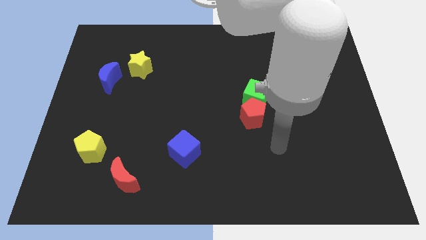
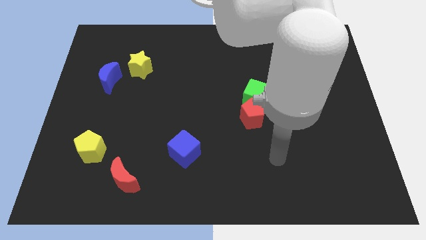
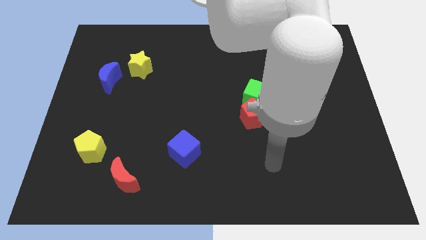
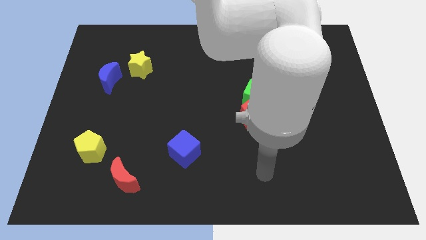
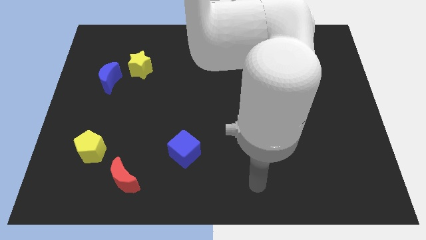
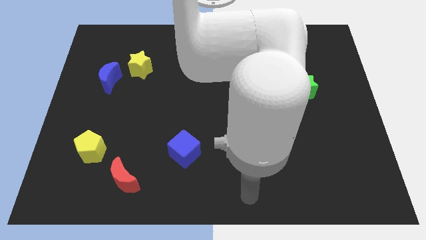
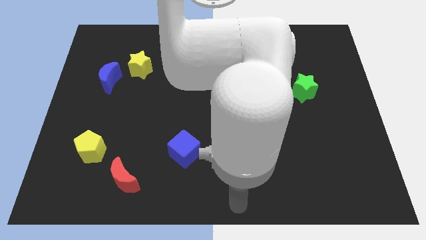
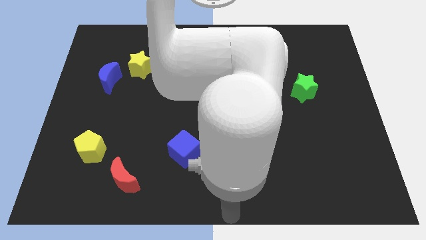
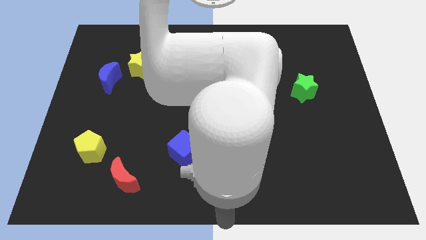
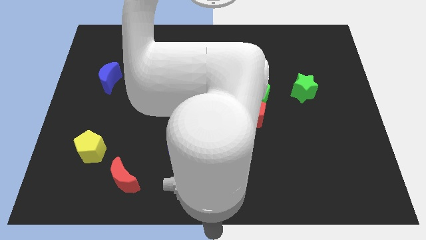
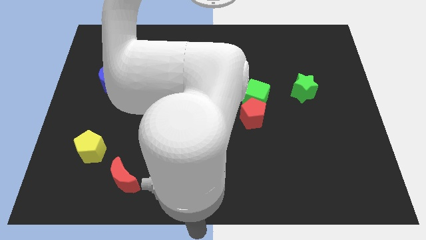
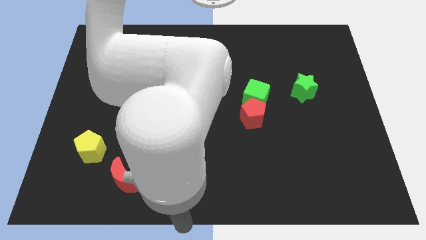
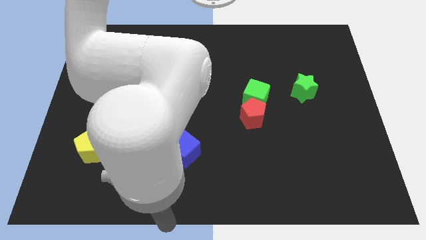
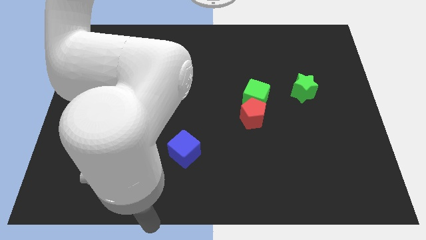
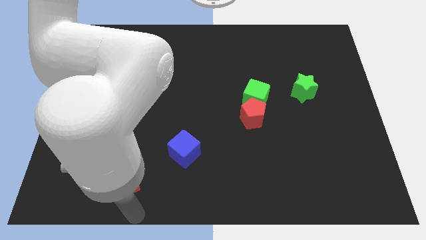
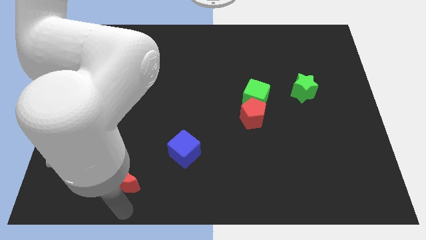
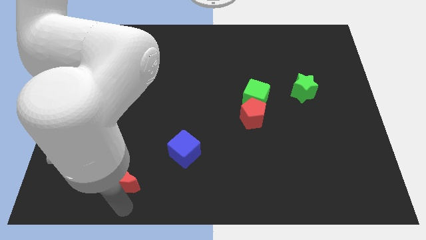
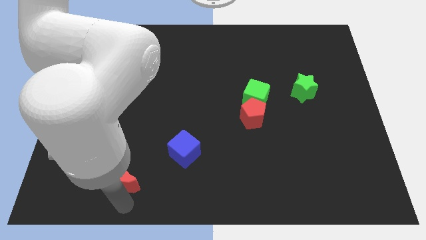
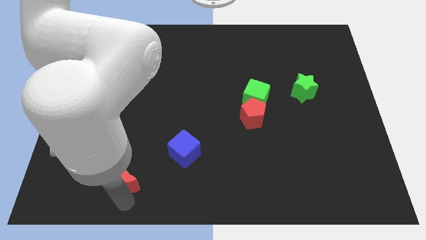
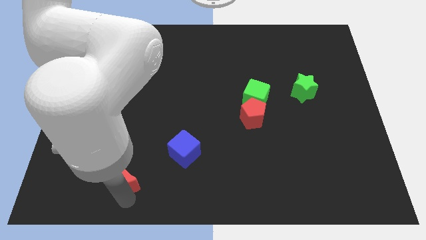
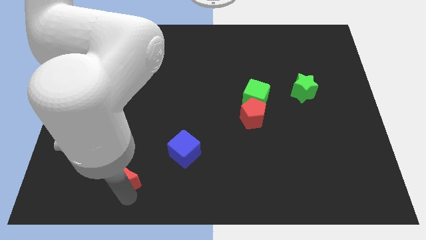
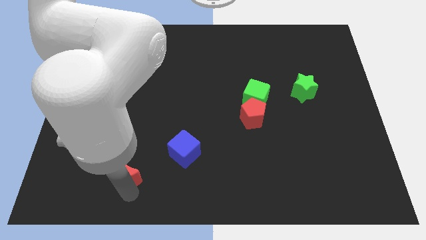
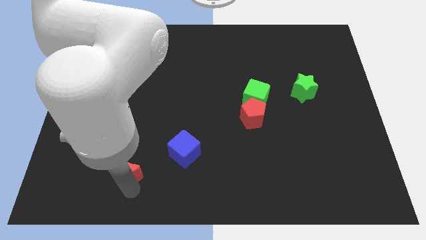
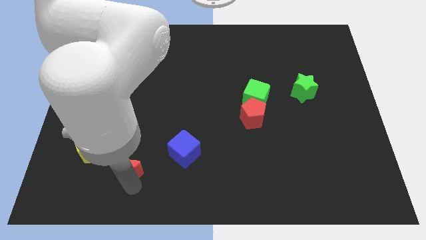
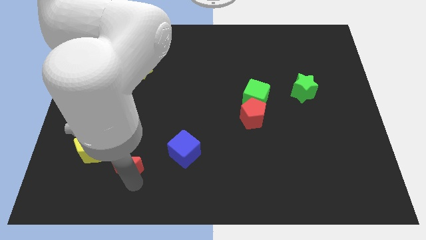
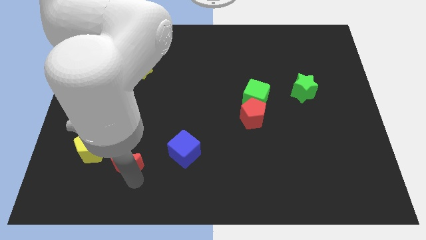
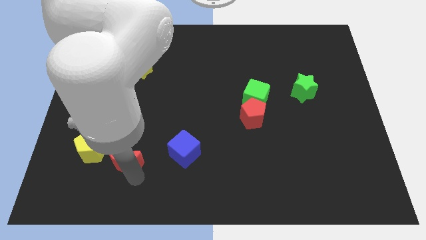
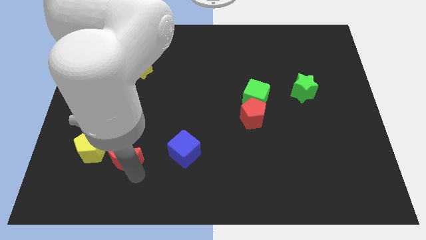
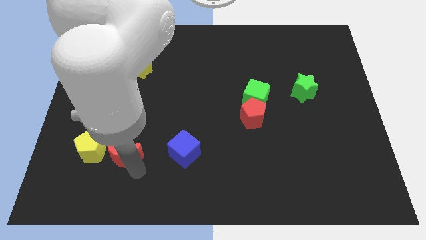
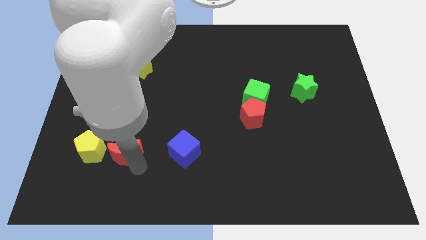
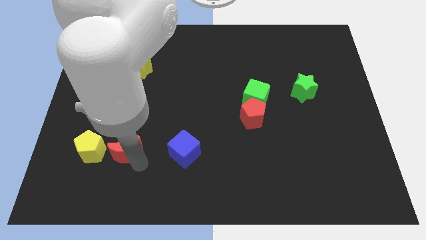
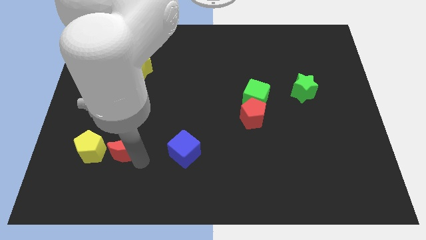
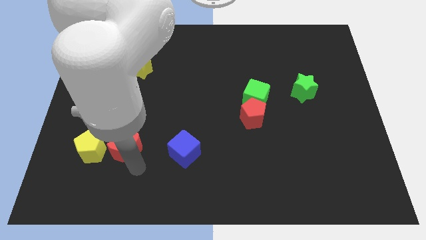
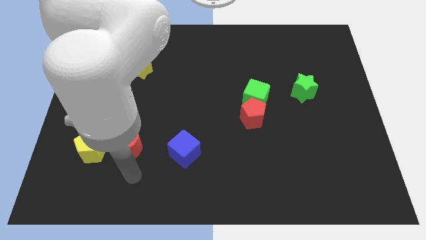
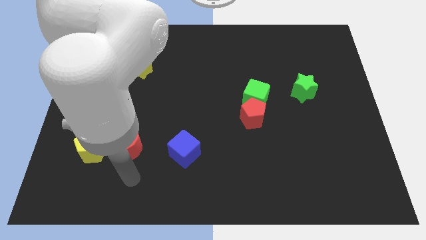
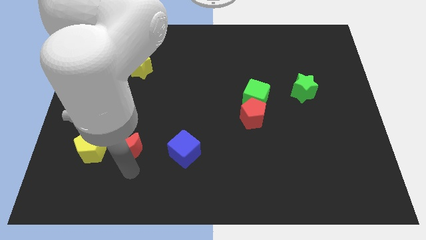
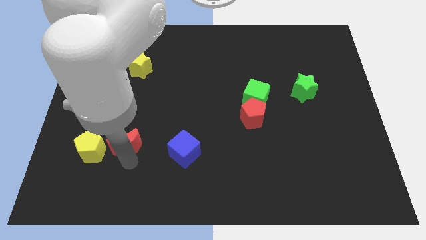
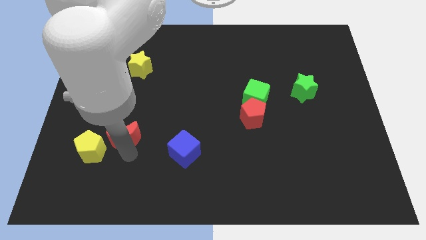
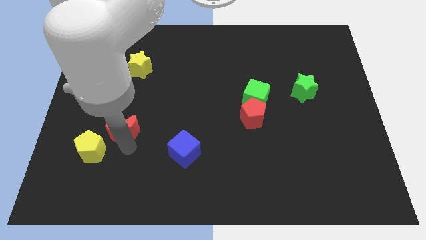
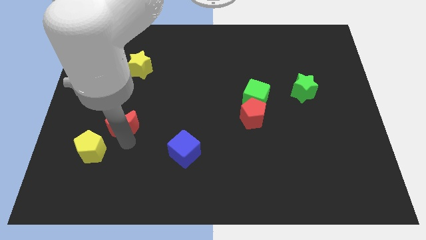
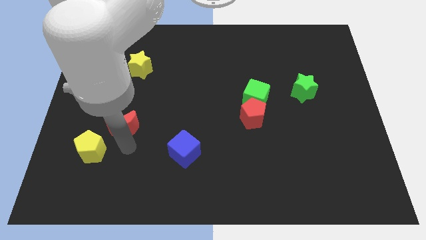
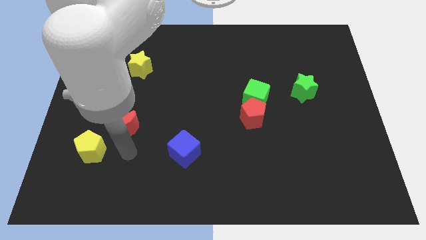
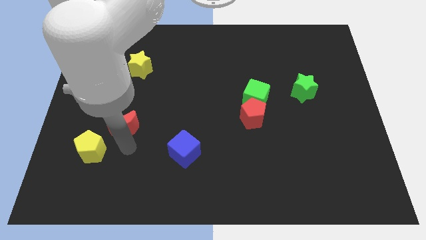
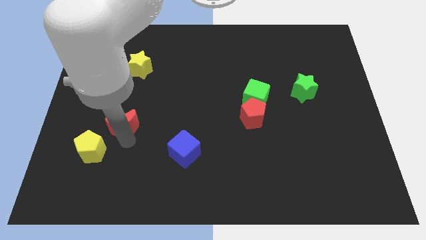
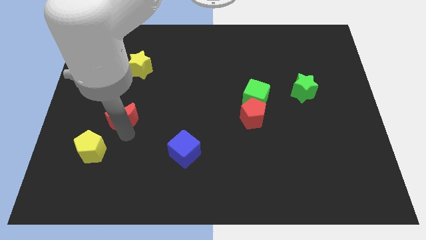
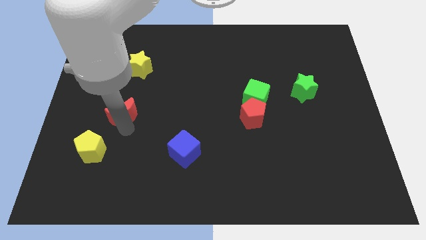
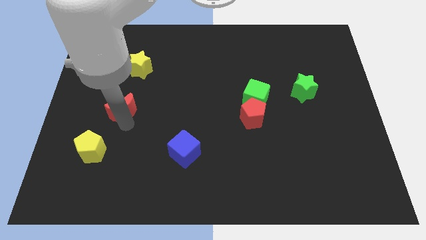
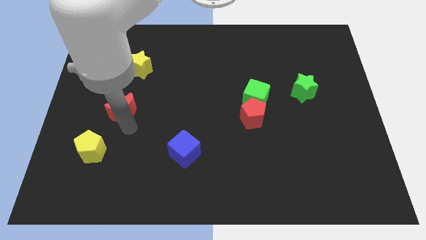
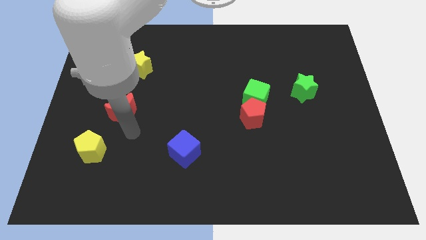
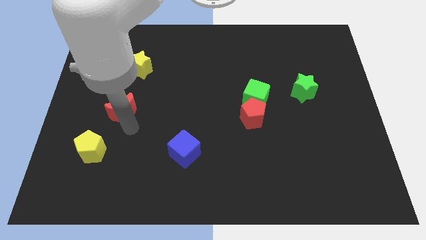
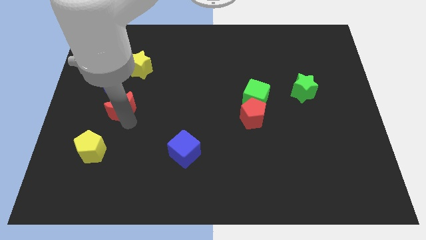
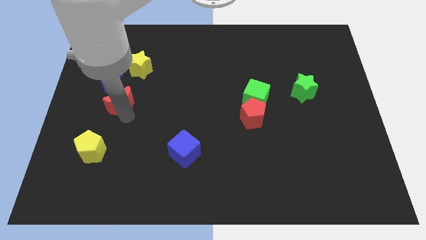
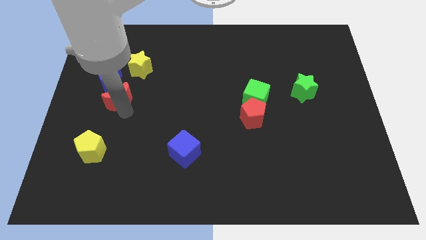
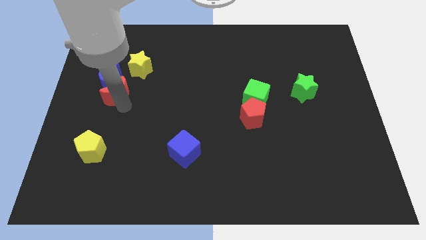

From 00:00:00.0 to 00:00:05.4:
put the red moon to the blue moon

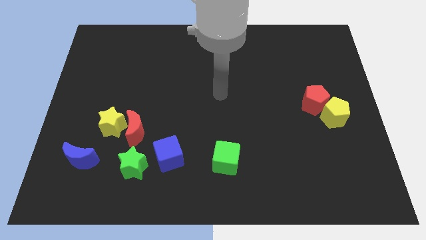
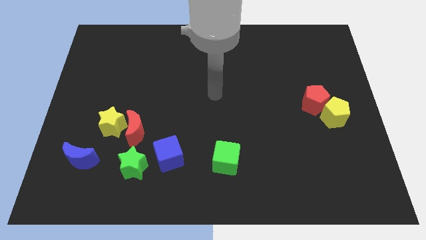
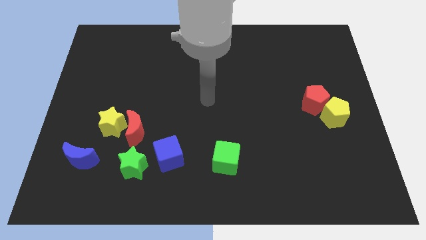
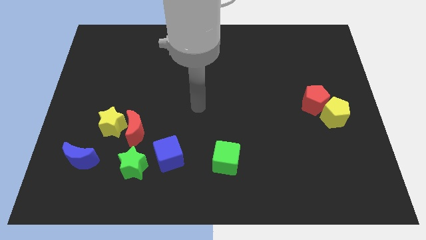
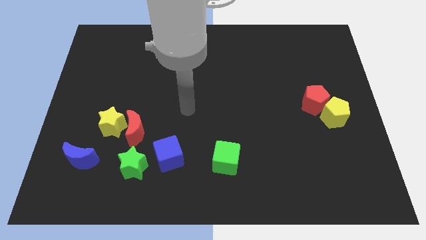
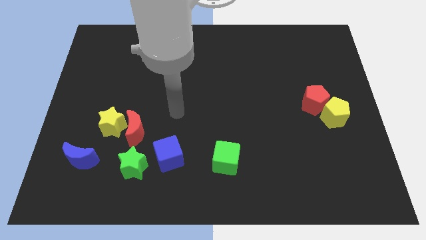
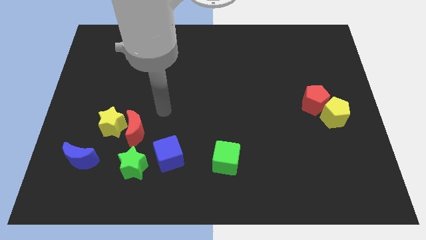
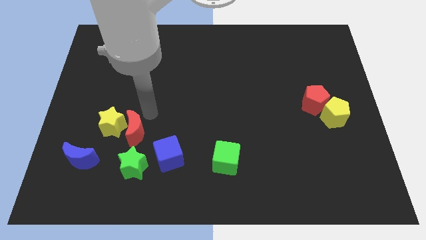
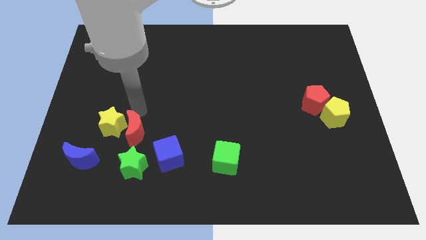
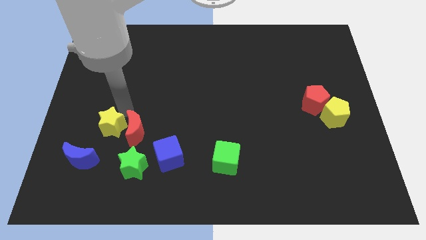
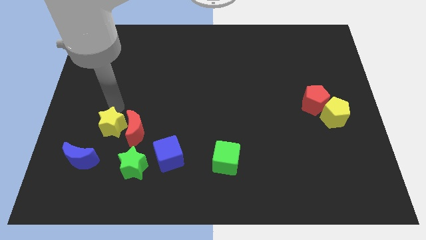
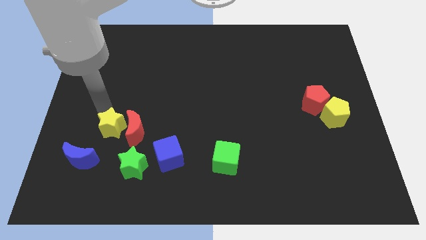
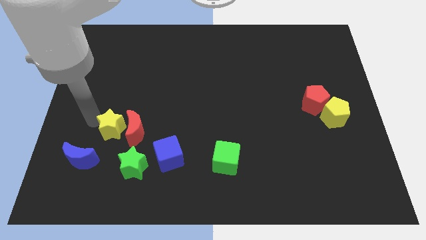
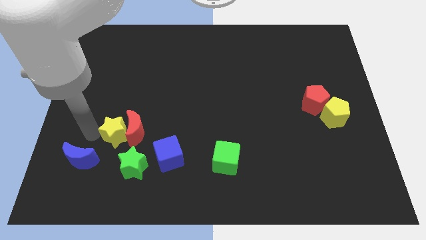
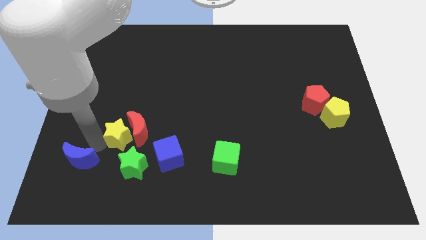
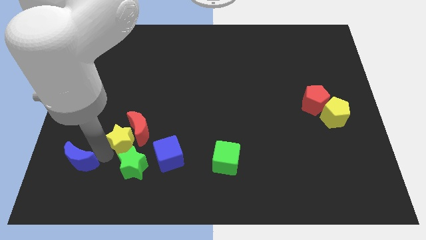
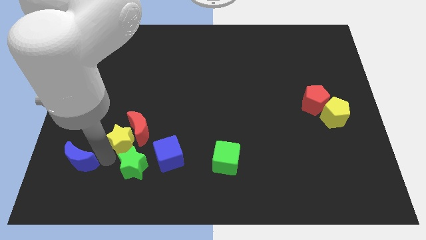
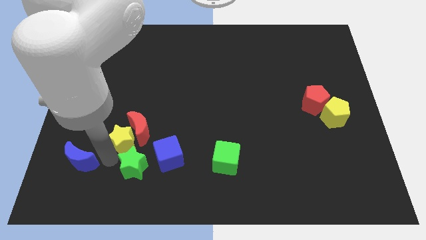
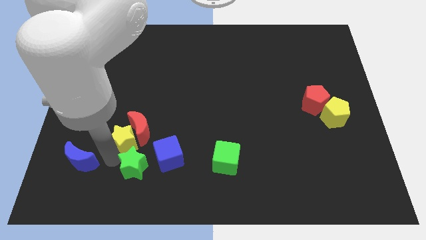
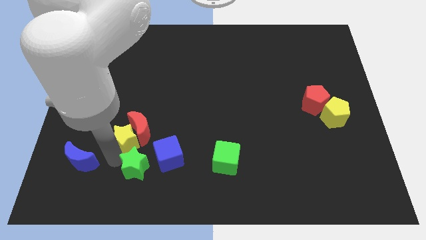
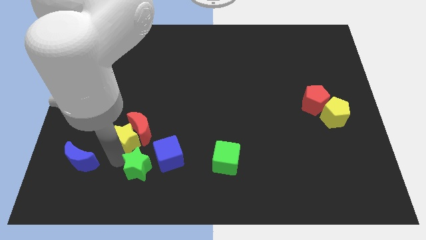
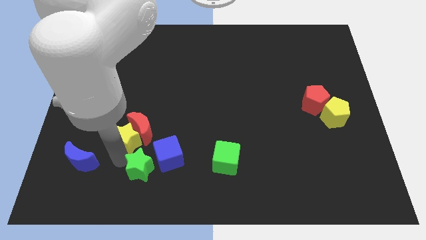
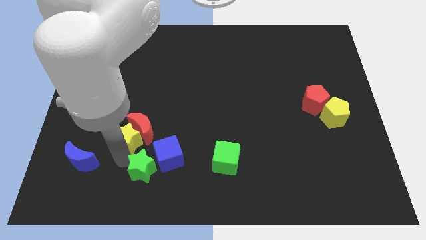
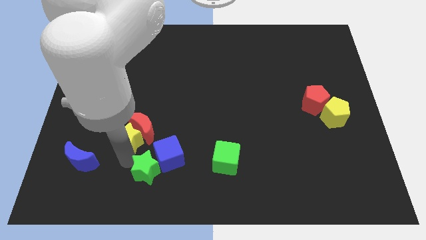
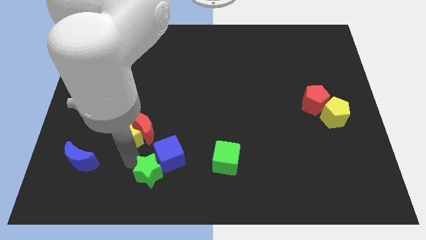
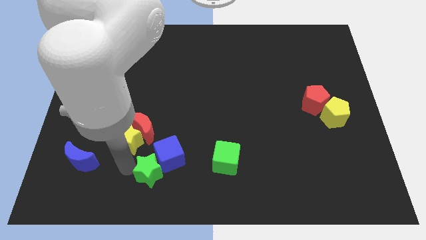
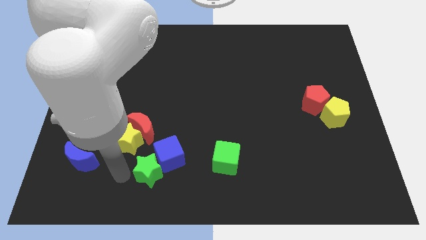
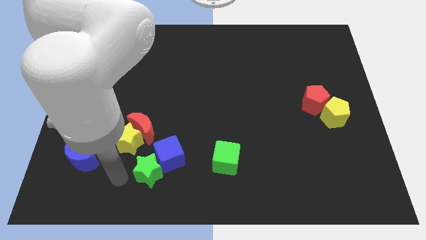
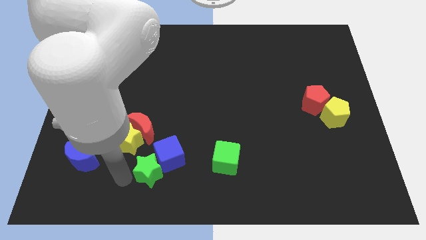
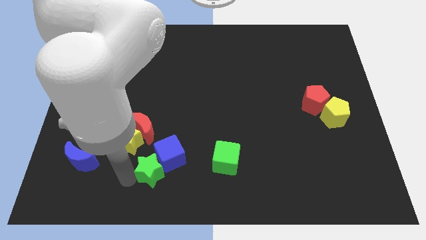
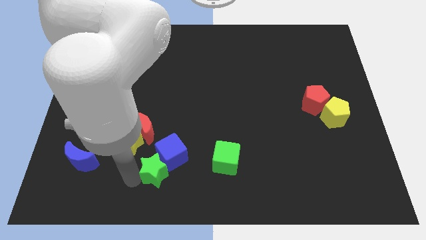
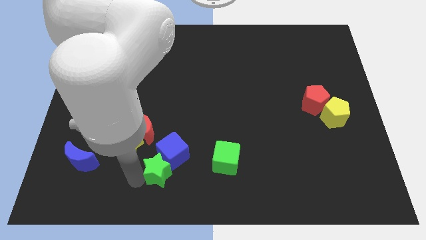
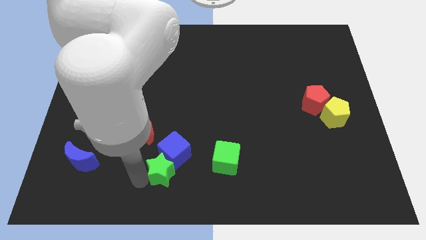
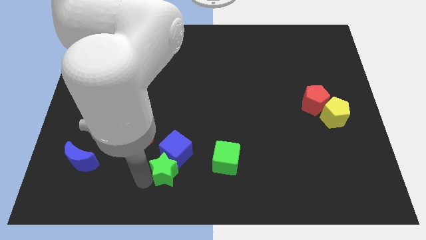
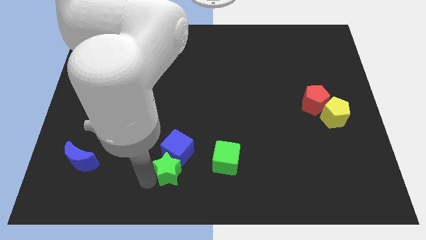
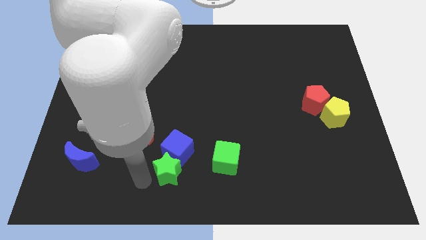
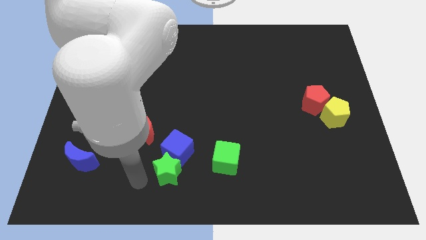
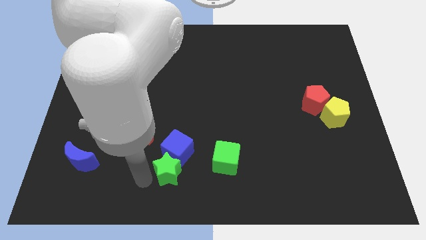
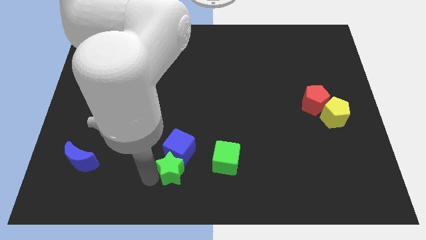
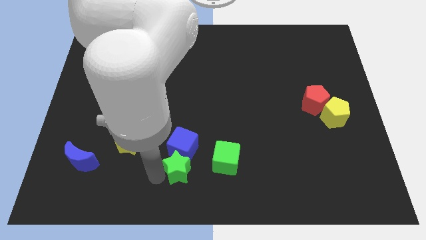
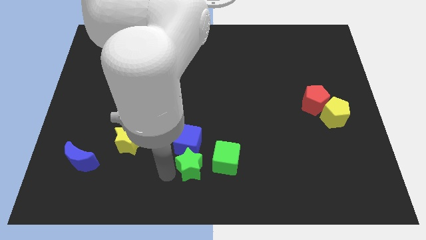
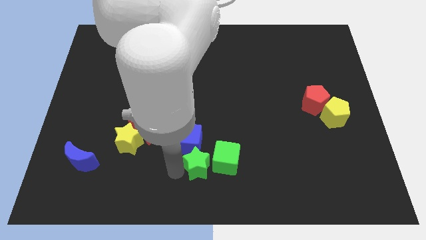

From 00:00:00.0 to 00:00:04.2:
slide the green star to the green cube
